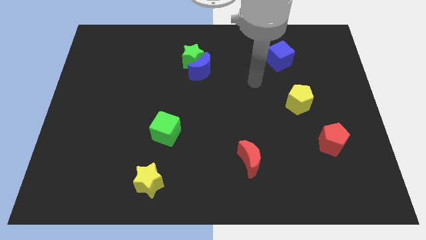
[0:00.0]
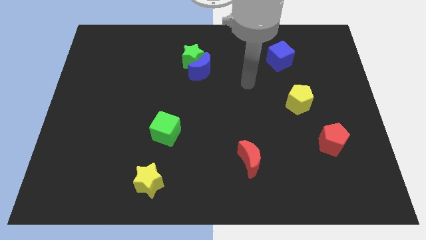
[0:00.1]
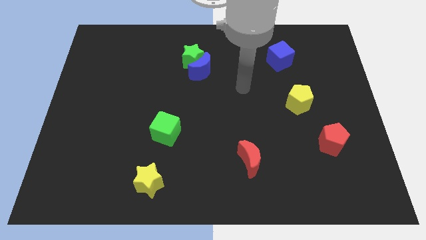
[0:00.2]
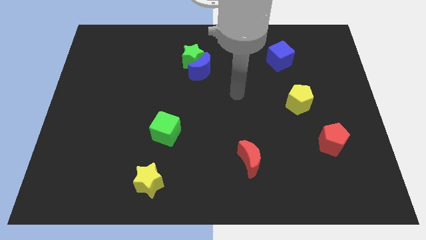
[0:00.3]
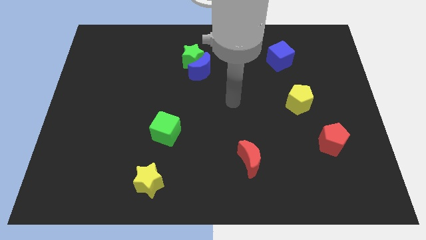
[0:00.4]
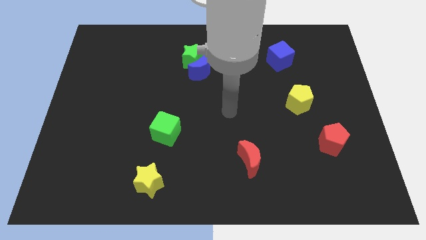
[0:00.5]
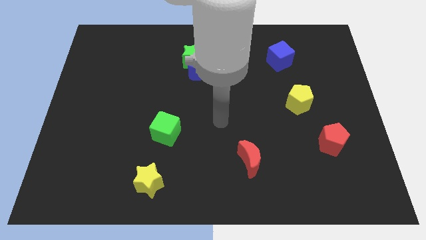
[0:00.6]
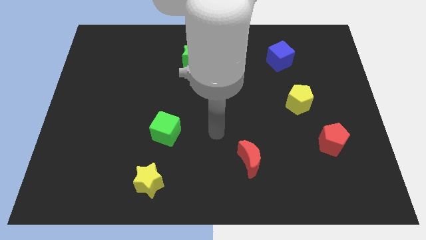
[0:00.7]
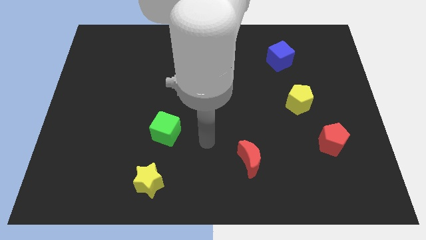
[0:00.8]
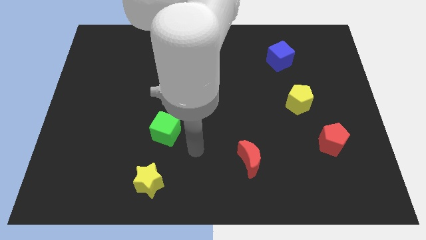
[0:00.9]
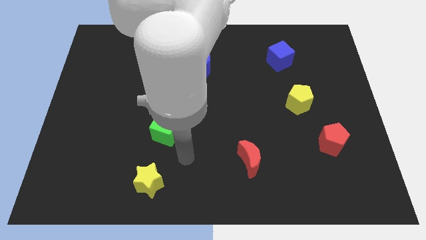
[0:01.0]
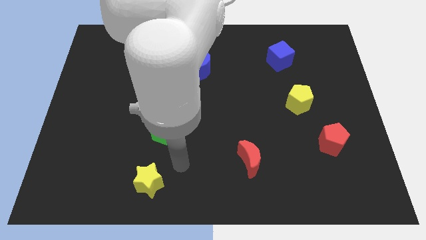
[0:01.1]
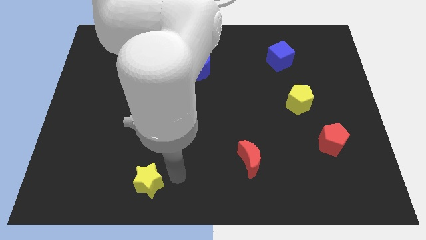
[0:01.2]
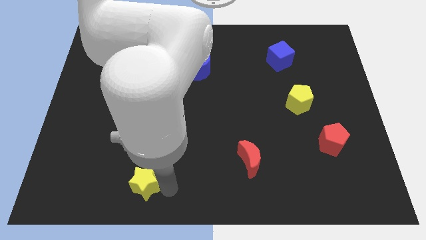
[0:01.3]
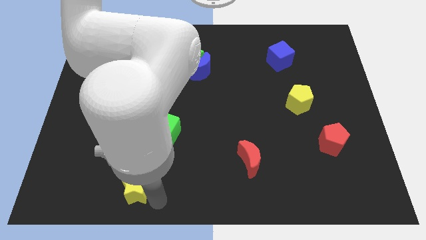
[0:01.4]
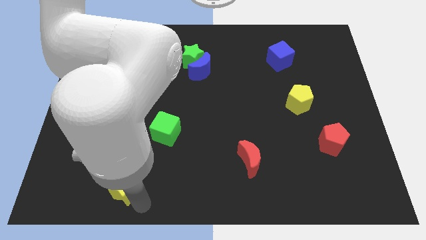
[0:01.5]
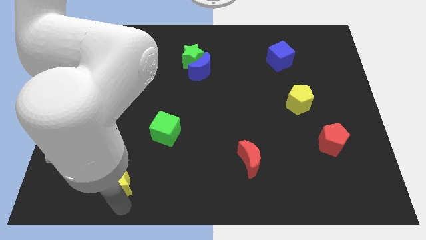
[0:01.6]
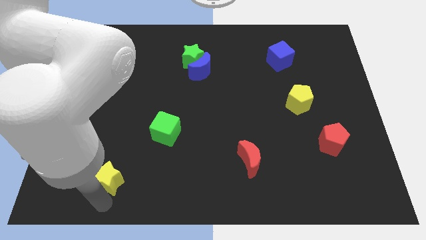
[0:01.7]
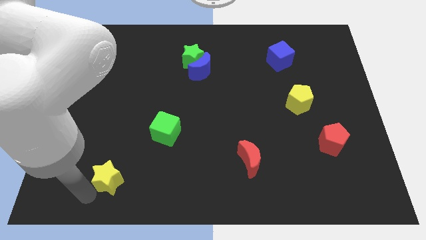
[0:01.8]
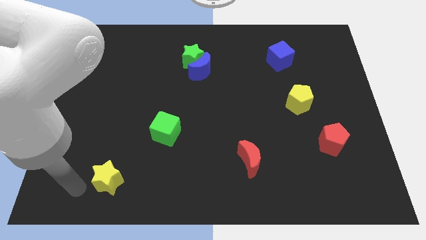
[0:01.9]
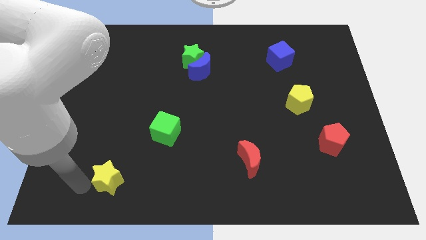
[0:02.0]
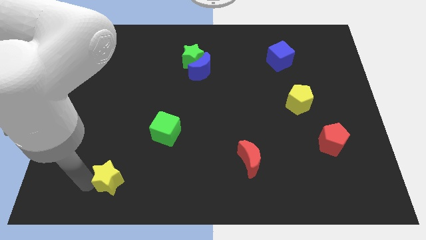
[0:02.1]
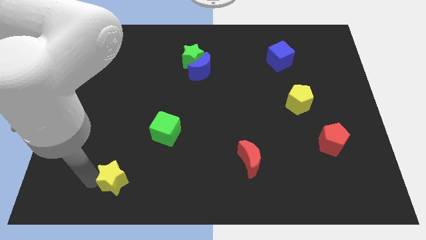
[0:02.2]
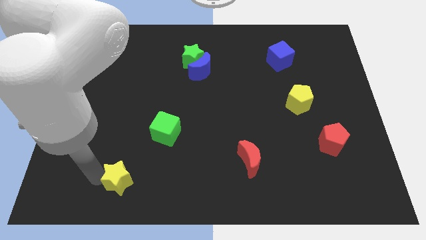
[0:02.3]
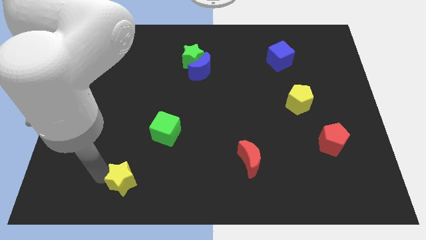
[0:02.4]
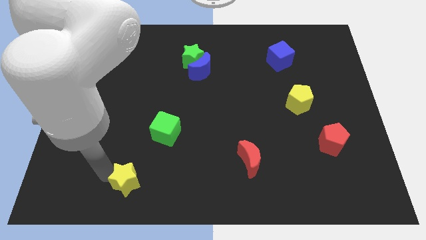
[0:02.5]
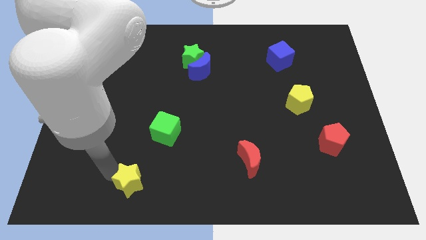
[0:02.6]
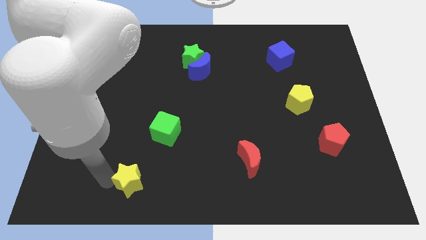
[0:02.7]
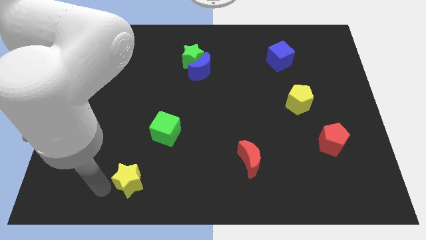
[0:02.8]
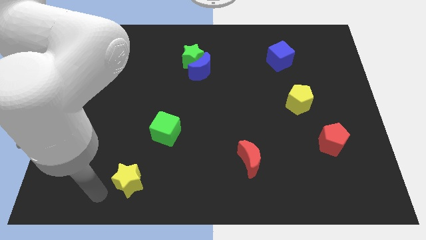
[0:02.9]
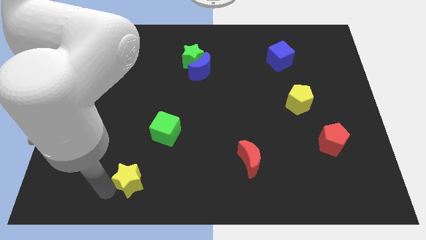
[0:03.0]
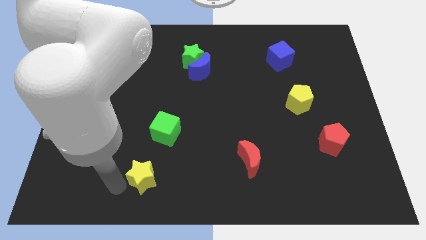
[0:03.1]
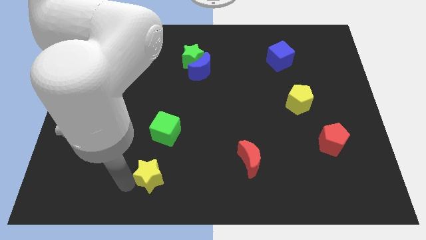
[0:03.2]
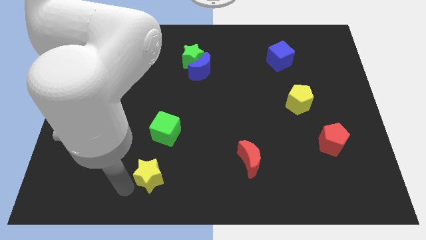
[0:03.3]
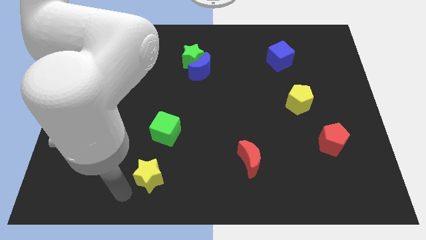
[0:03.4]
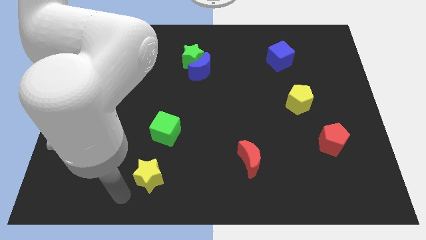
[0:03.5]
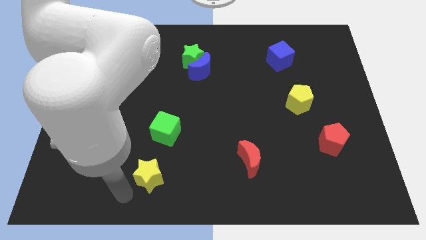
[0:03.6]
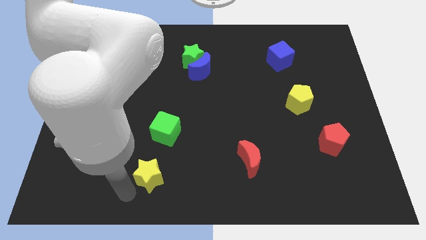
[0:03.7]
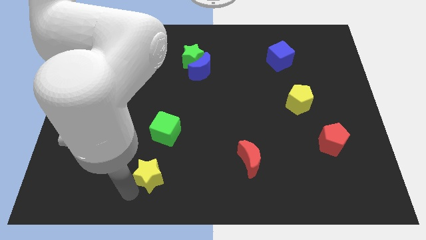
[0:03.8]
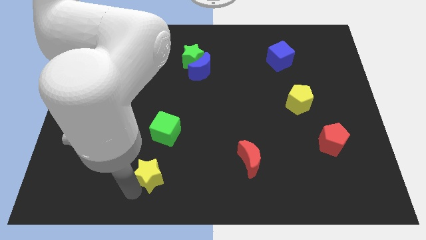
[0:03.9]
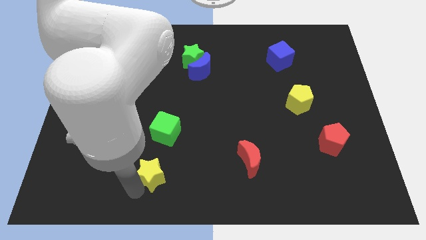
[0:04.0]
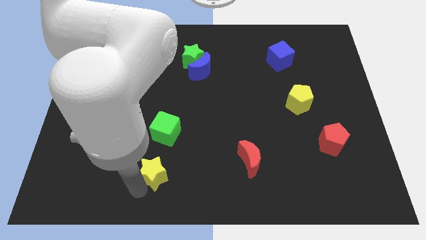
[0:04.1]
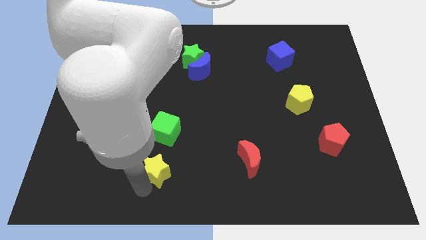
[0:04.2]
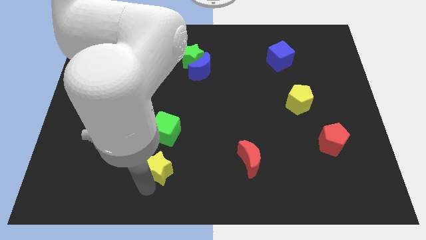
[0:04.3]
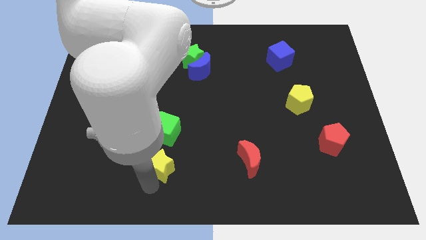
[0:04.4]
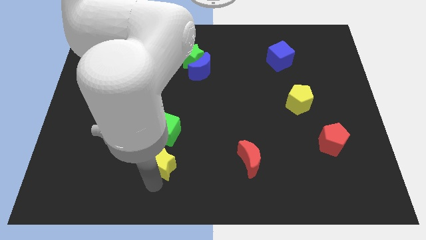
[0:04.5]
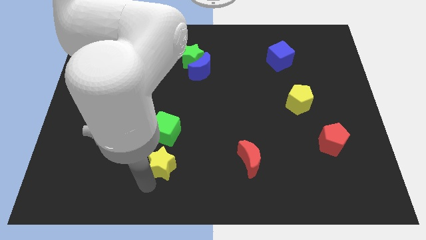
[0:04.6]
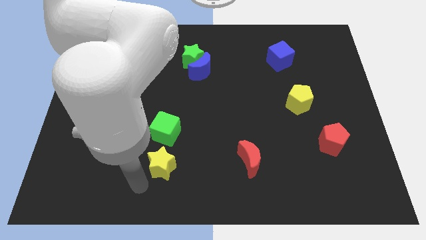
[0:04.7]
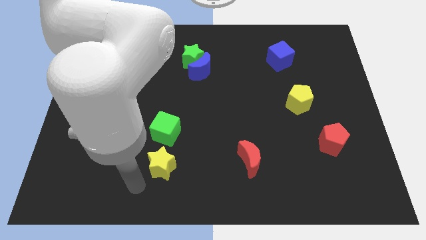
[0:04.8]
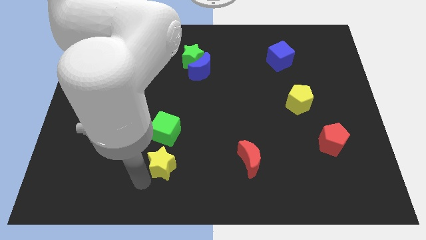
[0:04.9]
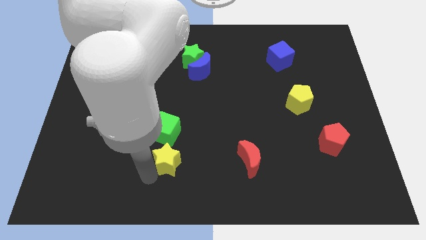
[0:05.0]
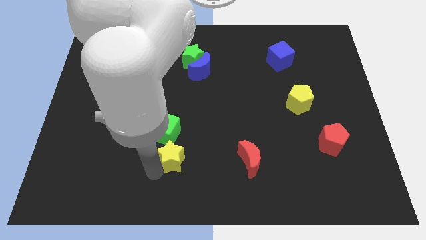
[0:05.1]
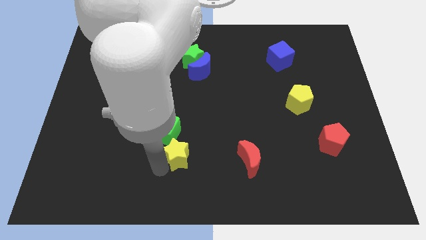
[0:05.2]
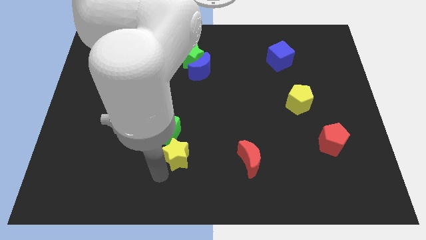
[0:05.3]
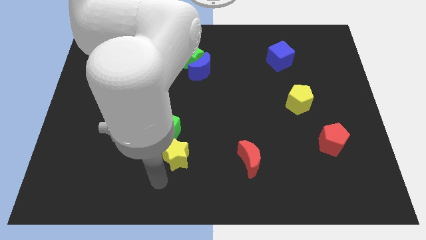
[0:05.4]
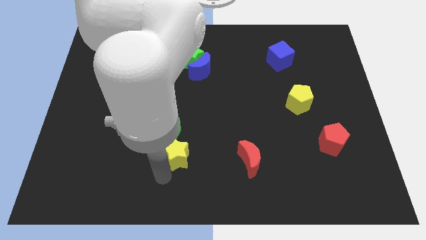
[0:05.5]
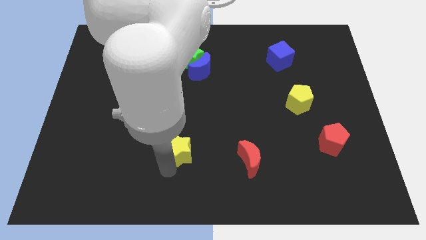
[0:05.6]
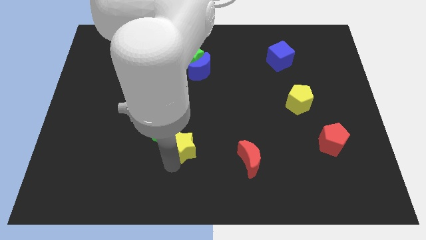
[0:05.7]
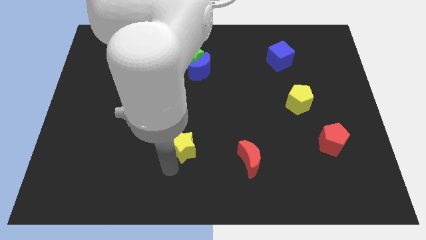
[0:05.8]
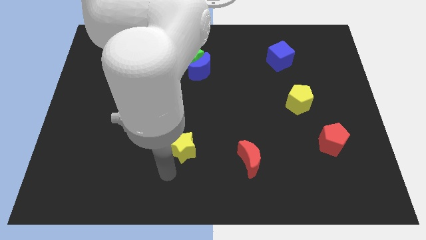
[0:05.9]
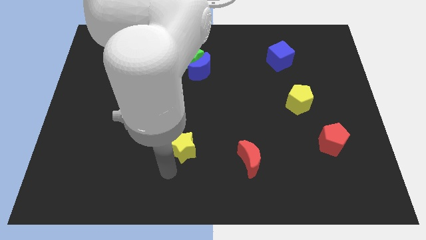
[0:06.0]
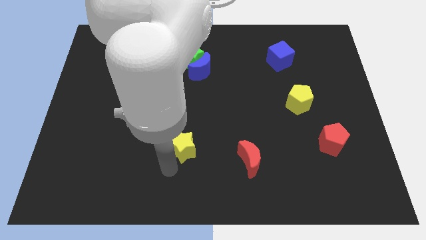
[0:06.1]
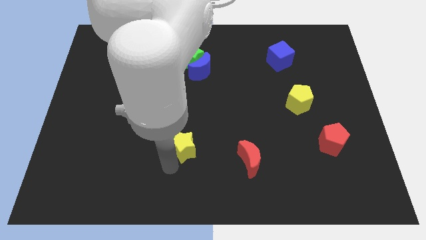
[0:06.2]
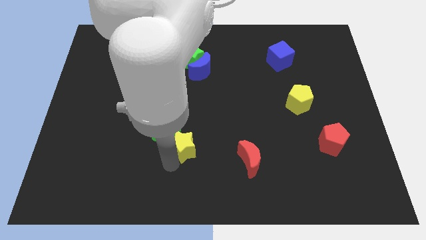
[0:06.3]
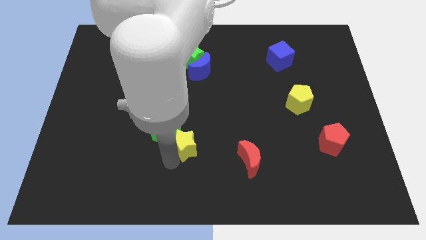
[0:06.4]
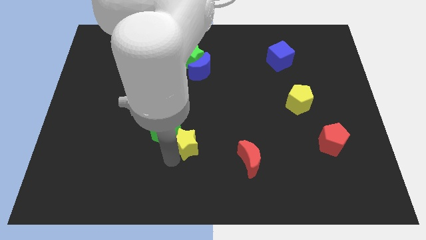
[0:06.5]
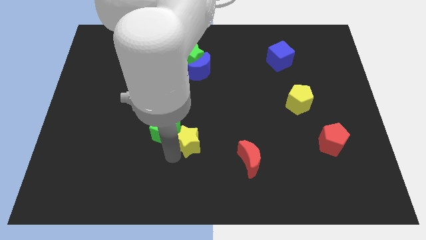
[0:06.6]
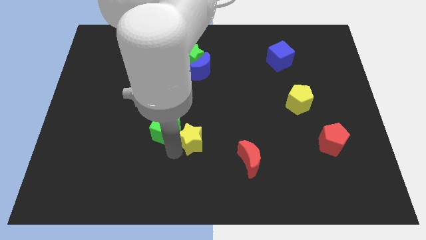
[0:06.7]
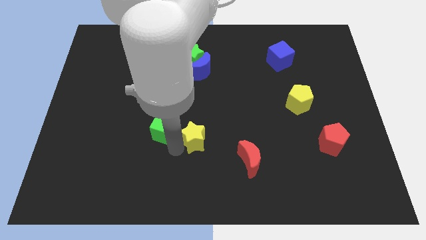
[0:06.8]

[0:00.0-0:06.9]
slide the yellow star to the center of the board

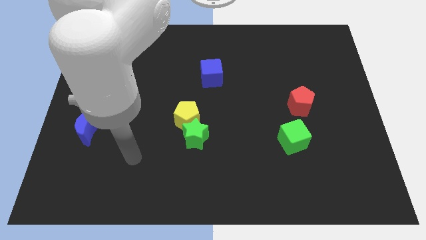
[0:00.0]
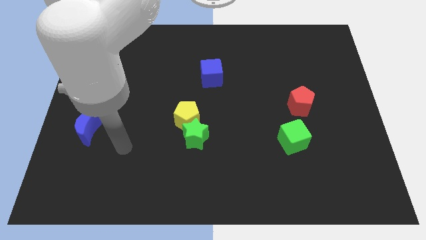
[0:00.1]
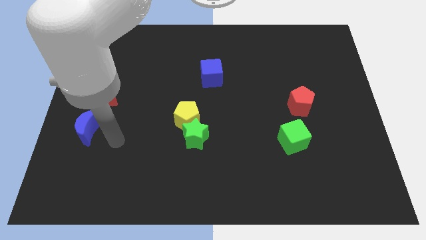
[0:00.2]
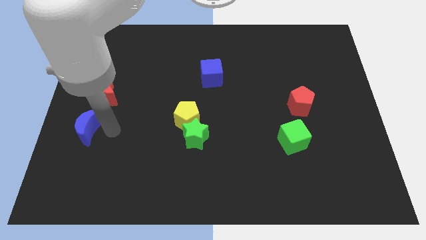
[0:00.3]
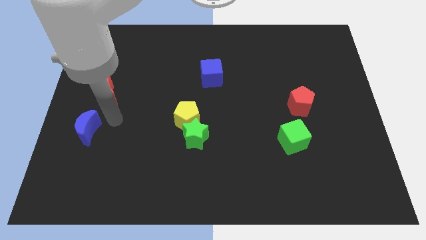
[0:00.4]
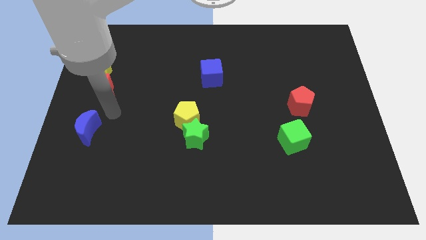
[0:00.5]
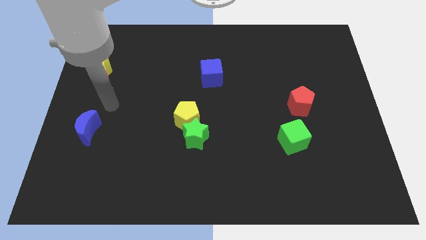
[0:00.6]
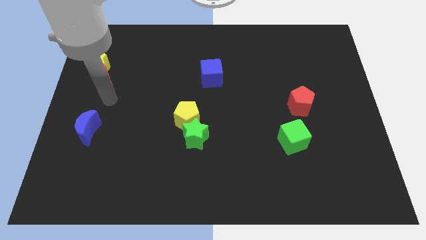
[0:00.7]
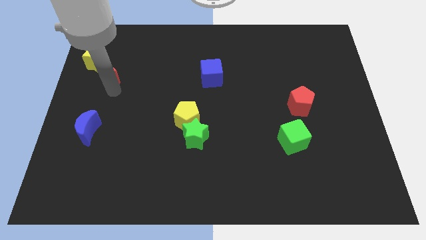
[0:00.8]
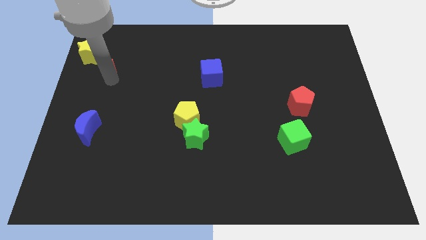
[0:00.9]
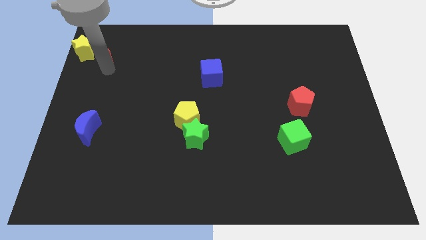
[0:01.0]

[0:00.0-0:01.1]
push the yellow star to the top left
